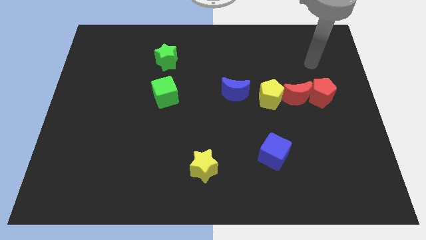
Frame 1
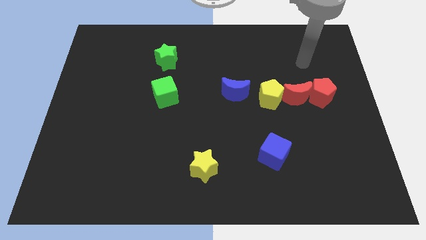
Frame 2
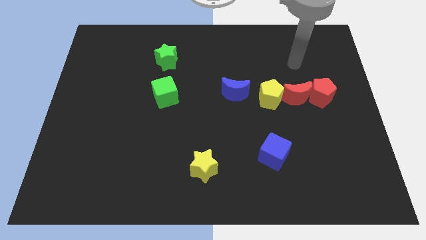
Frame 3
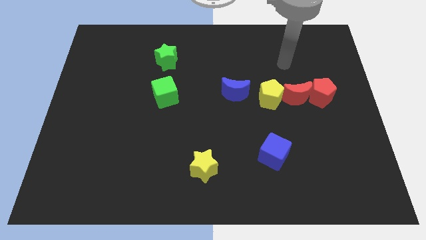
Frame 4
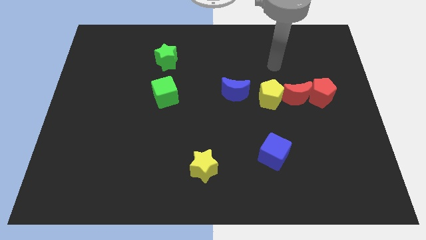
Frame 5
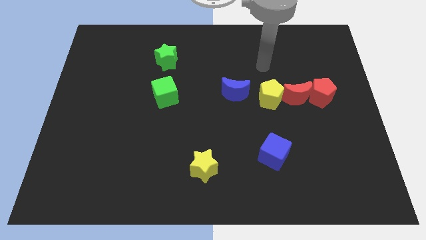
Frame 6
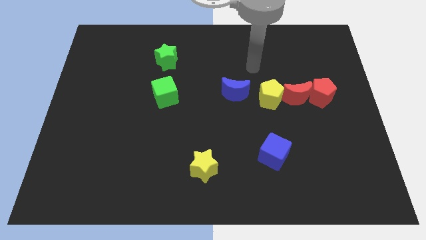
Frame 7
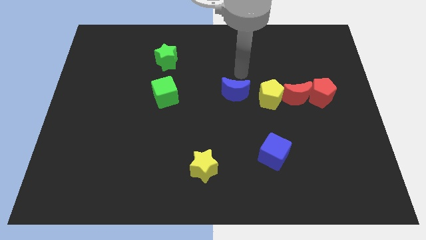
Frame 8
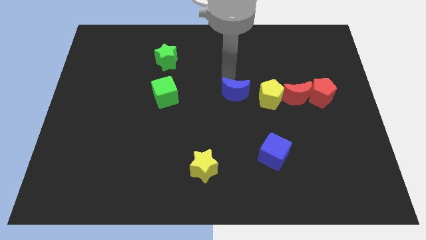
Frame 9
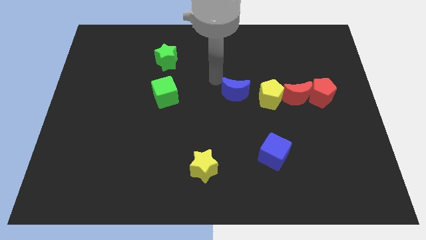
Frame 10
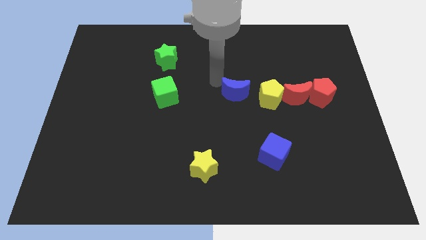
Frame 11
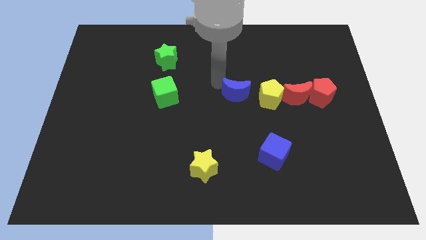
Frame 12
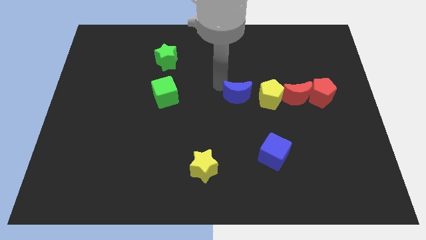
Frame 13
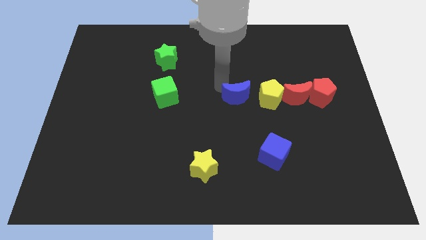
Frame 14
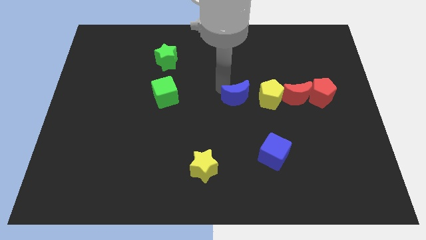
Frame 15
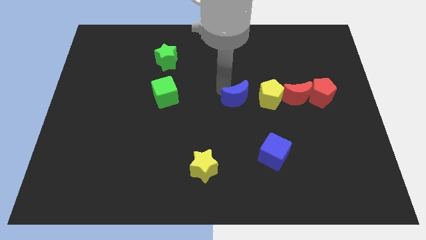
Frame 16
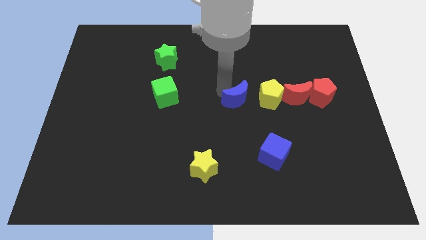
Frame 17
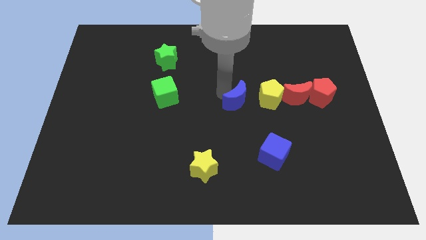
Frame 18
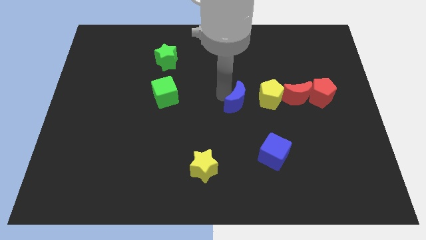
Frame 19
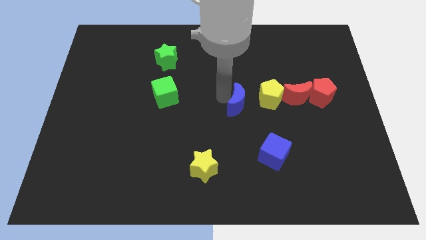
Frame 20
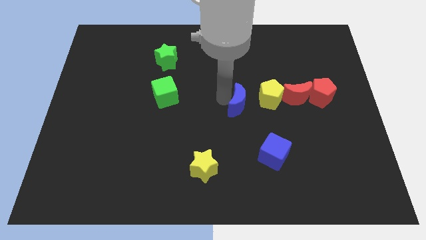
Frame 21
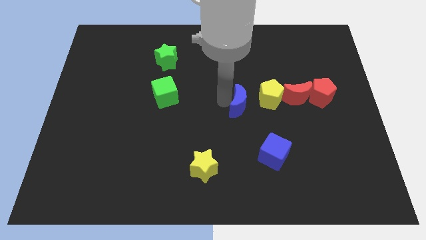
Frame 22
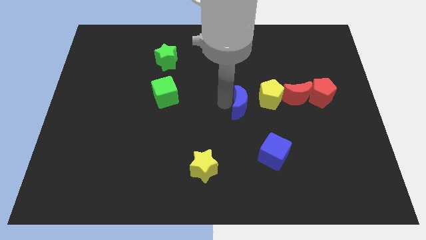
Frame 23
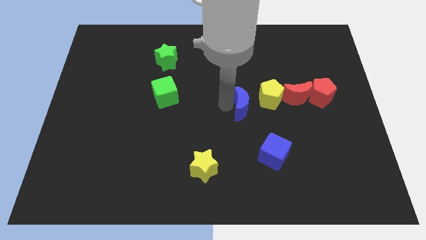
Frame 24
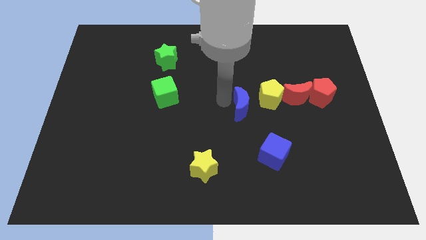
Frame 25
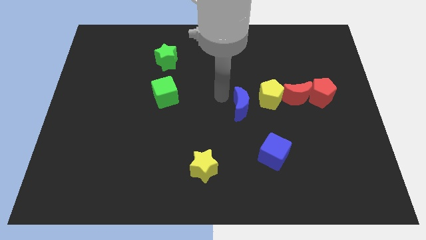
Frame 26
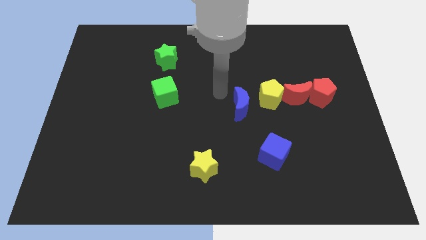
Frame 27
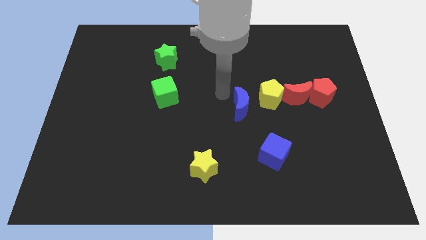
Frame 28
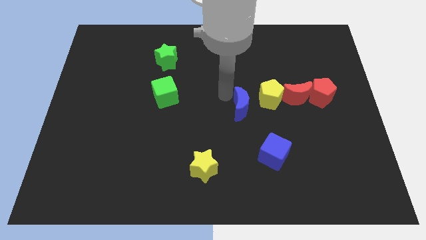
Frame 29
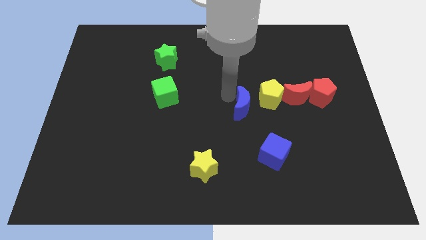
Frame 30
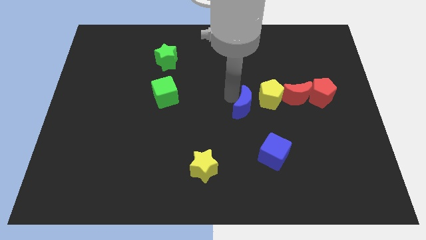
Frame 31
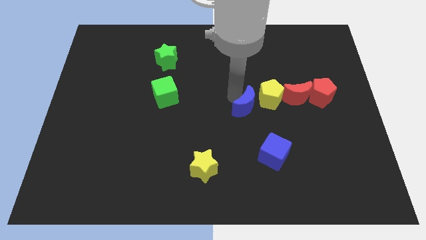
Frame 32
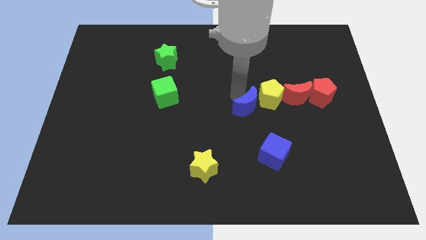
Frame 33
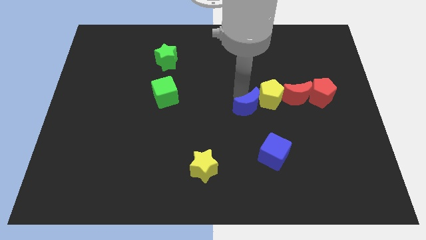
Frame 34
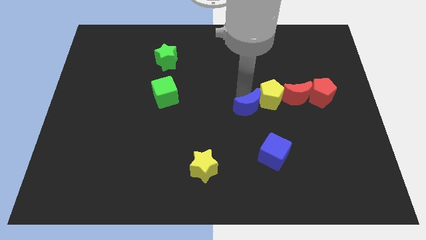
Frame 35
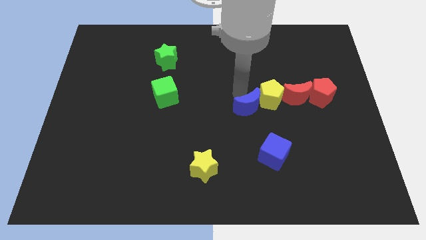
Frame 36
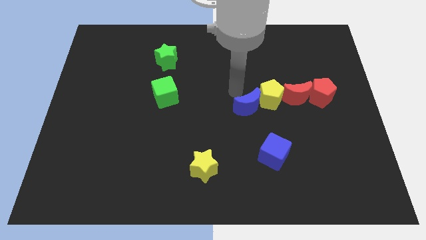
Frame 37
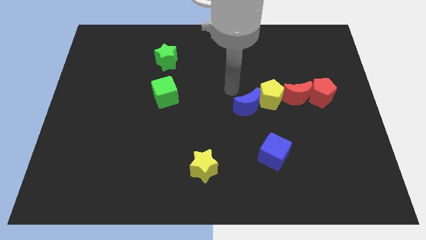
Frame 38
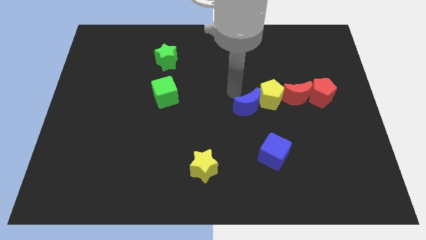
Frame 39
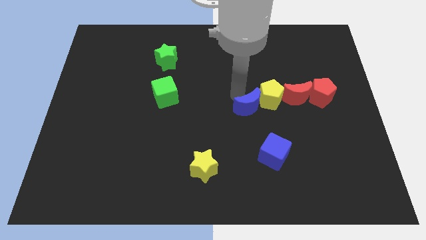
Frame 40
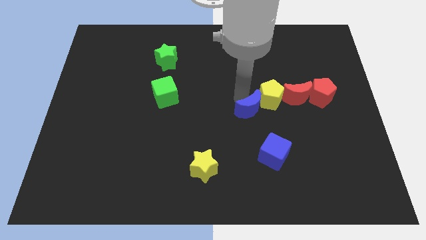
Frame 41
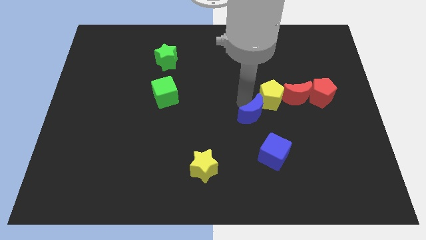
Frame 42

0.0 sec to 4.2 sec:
push the blue moon slightly downwards and then to the right

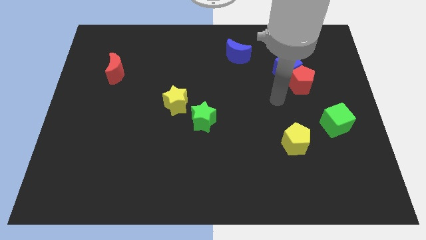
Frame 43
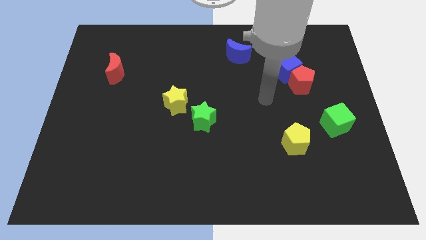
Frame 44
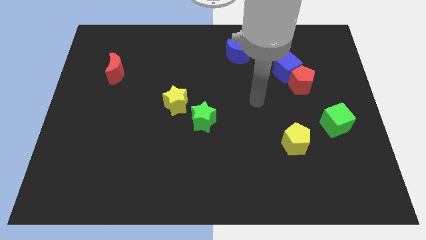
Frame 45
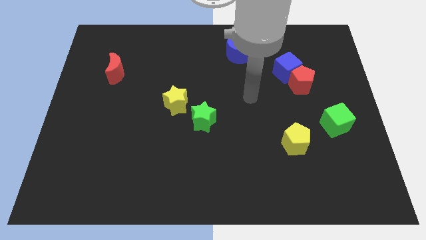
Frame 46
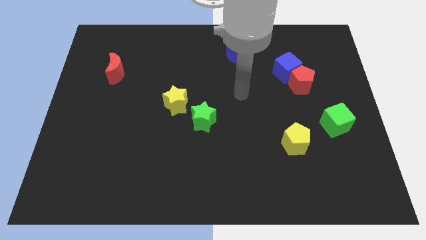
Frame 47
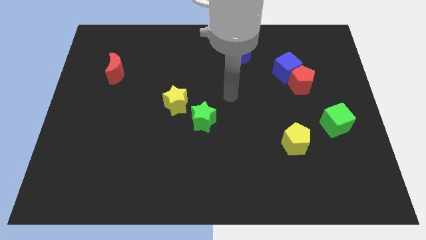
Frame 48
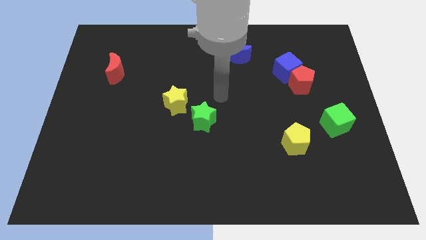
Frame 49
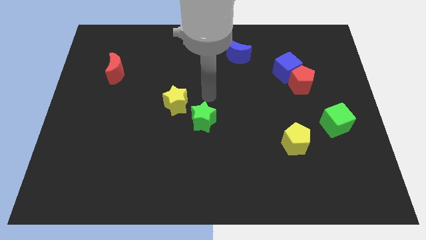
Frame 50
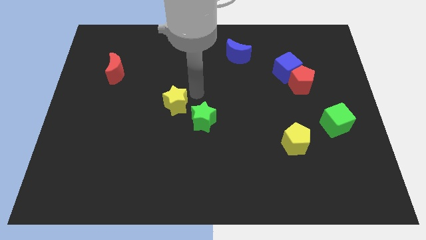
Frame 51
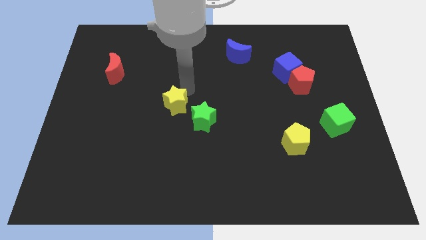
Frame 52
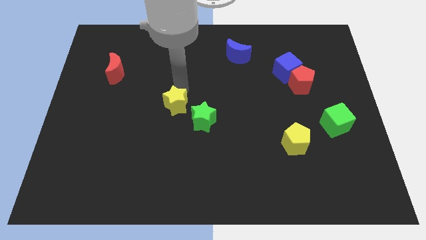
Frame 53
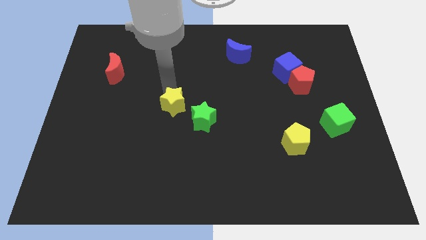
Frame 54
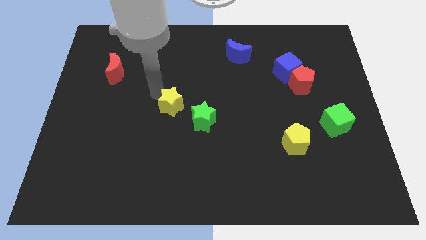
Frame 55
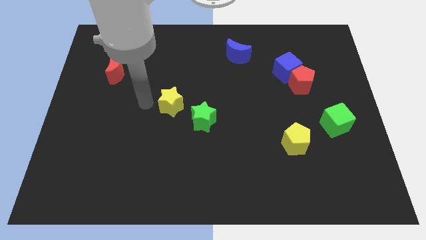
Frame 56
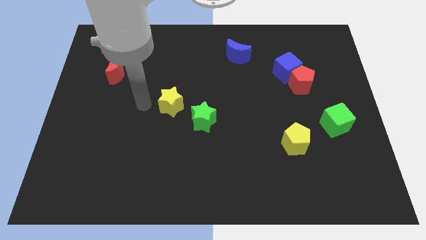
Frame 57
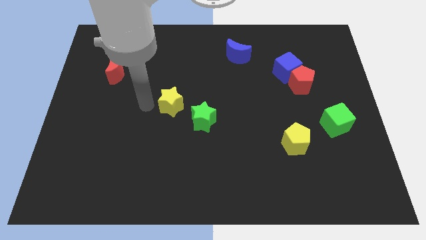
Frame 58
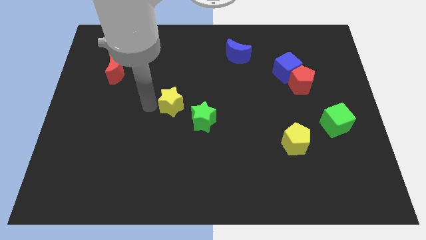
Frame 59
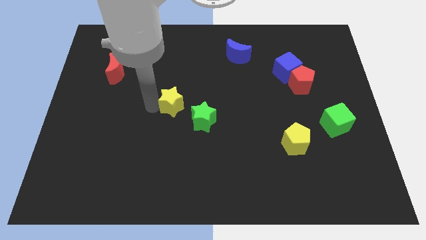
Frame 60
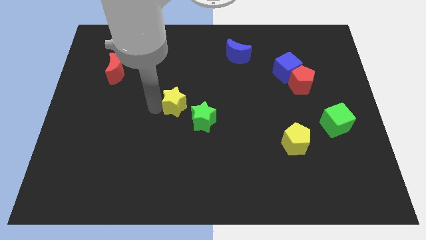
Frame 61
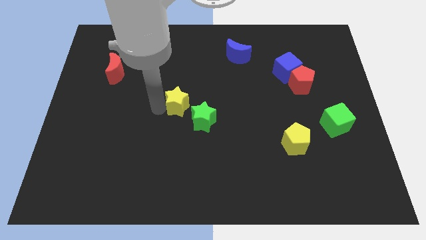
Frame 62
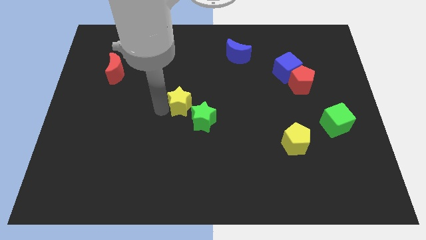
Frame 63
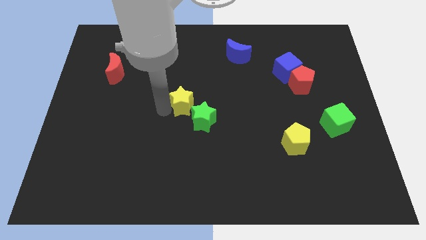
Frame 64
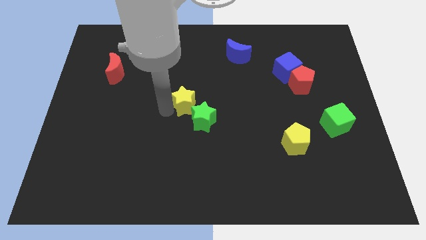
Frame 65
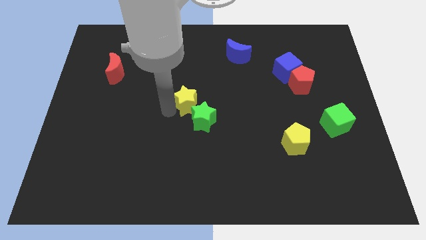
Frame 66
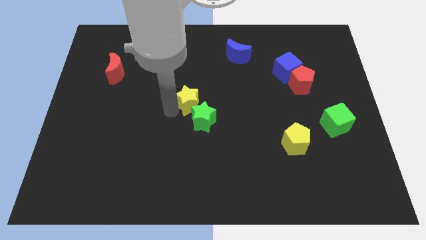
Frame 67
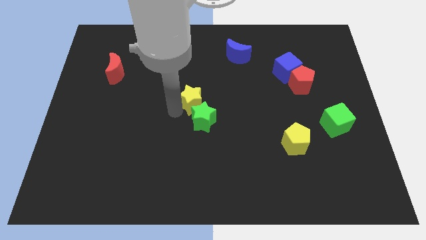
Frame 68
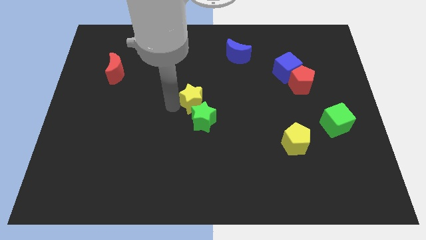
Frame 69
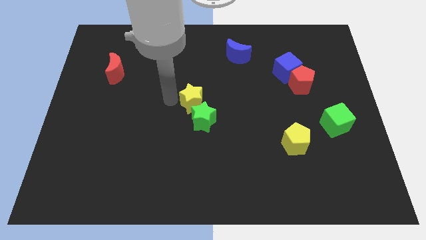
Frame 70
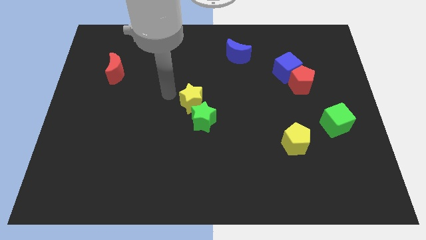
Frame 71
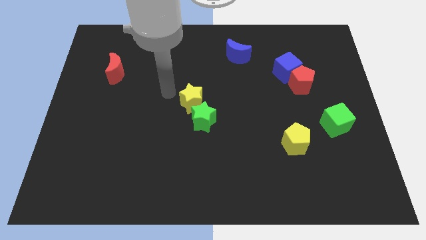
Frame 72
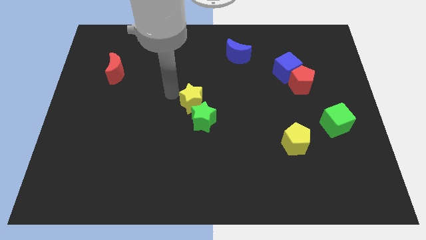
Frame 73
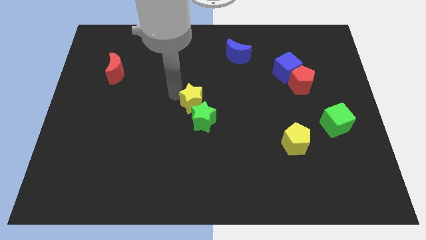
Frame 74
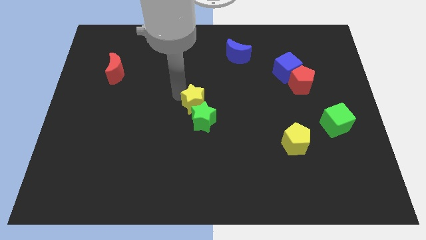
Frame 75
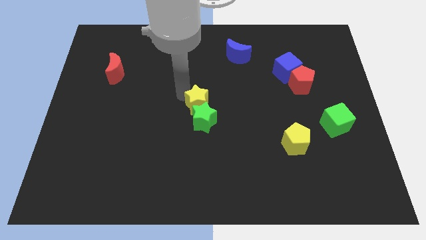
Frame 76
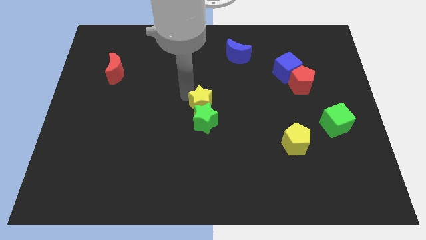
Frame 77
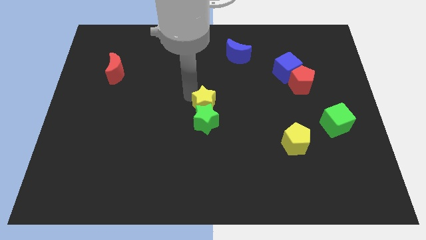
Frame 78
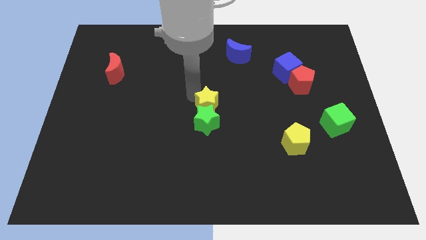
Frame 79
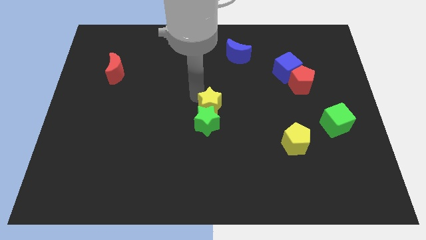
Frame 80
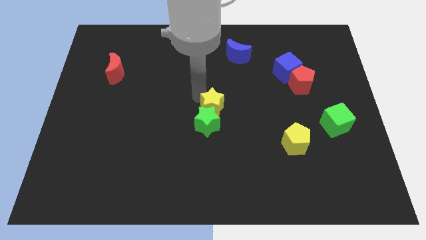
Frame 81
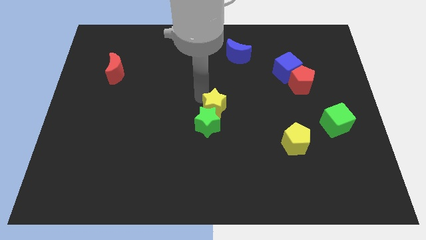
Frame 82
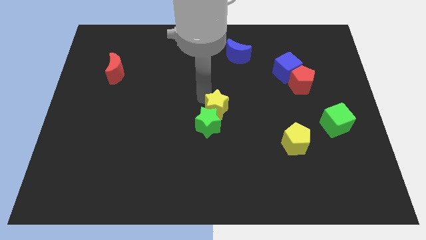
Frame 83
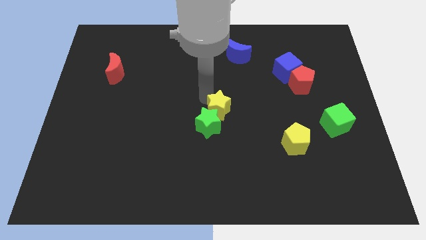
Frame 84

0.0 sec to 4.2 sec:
move the yellow star somewhat down and right diagonally
